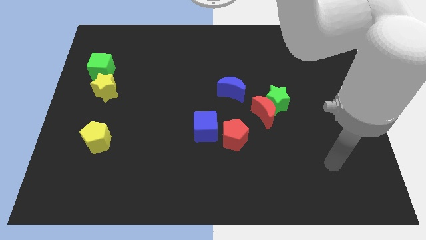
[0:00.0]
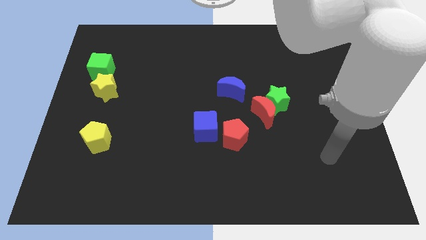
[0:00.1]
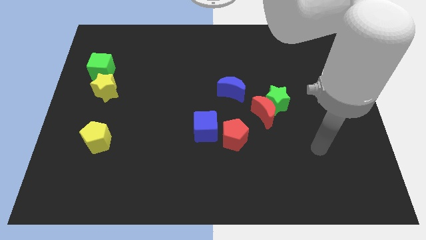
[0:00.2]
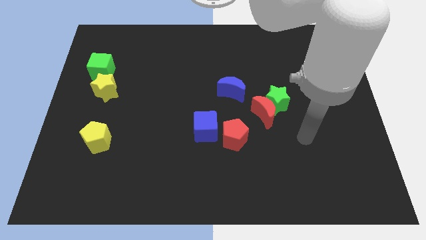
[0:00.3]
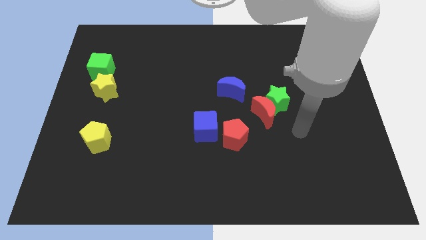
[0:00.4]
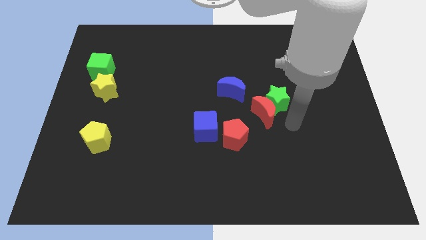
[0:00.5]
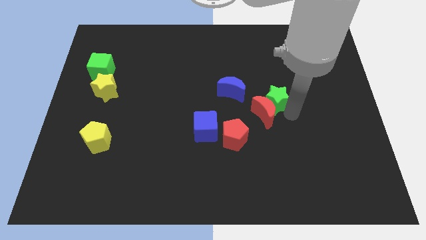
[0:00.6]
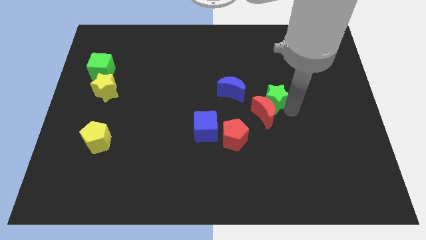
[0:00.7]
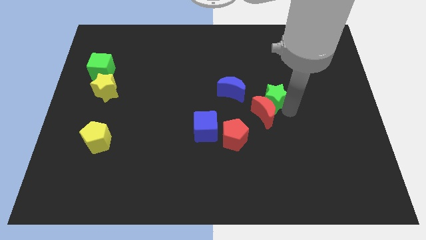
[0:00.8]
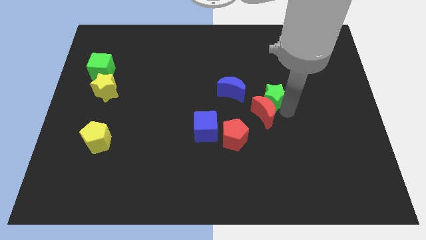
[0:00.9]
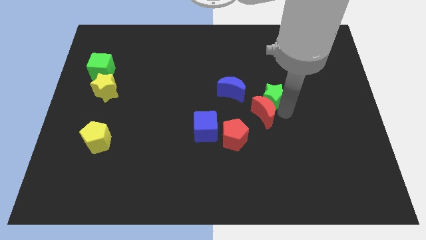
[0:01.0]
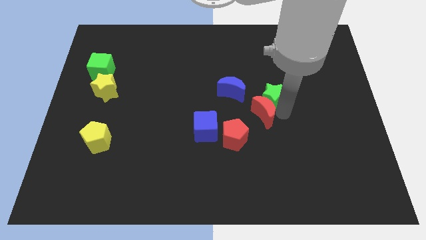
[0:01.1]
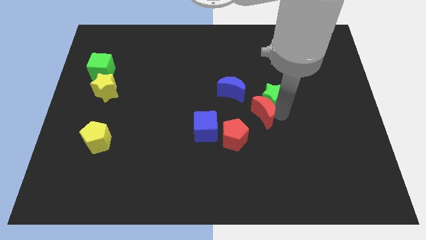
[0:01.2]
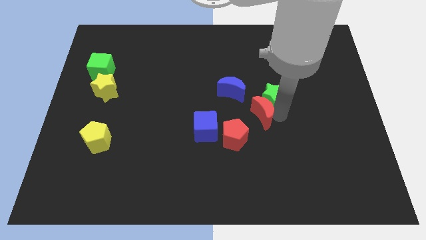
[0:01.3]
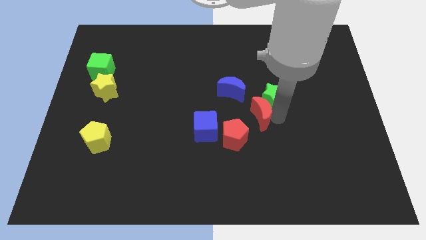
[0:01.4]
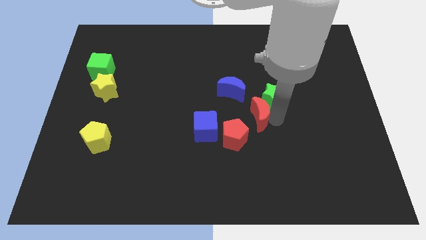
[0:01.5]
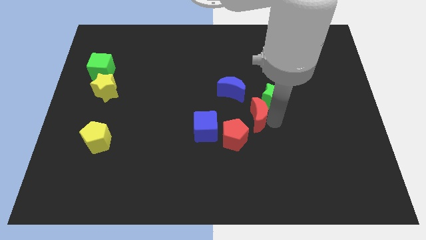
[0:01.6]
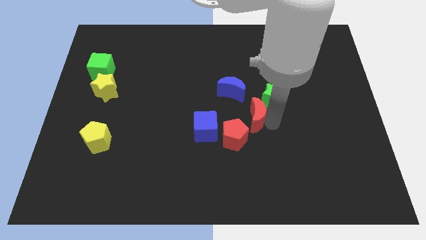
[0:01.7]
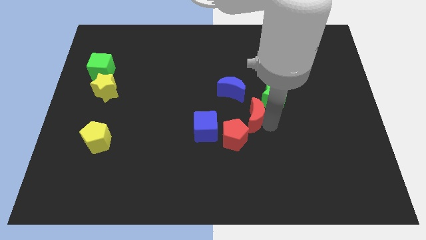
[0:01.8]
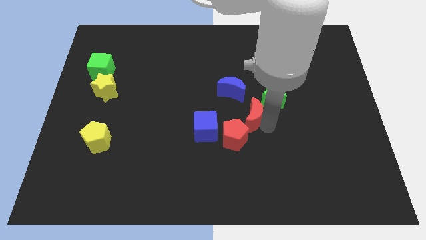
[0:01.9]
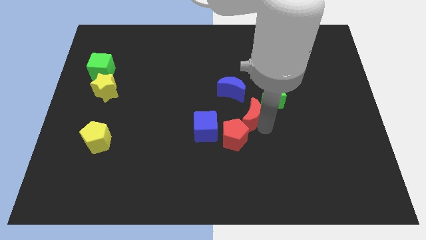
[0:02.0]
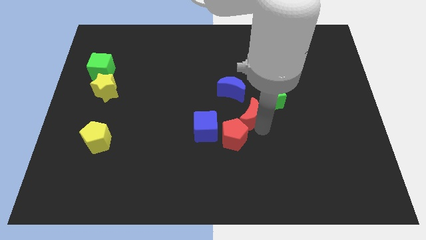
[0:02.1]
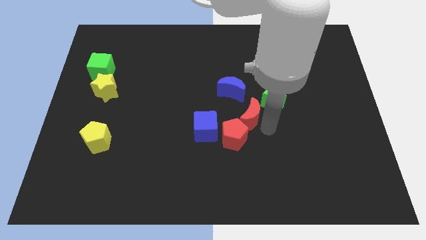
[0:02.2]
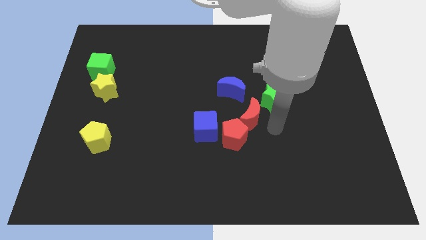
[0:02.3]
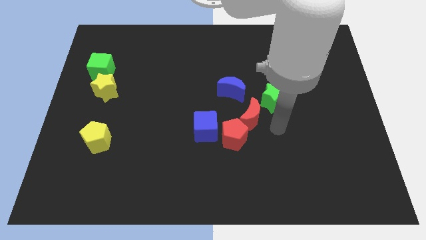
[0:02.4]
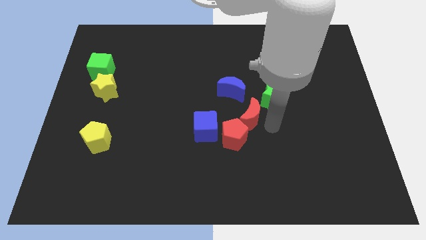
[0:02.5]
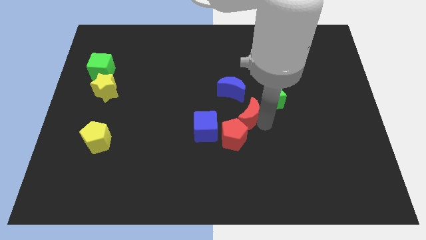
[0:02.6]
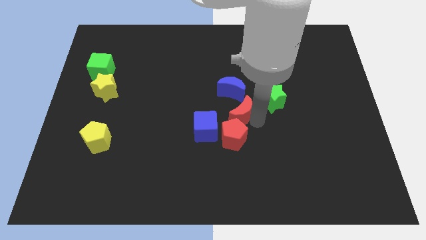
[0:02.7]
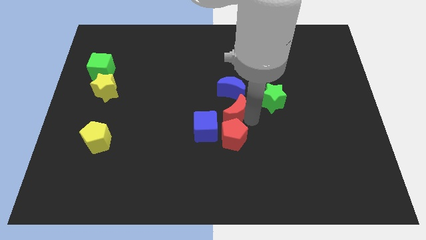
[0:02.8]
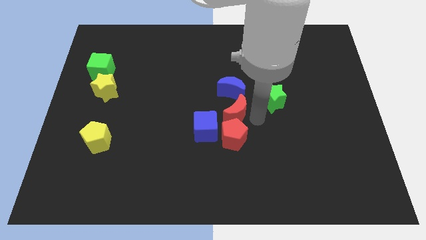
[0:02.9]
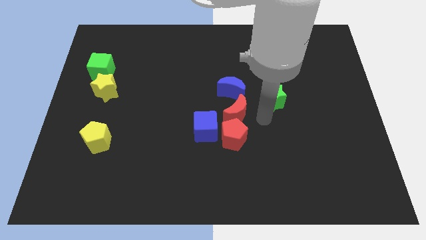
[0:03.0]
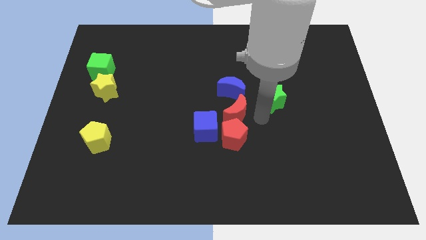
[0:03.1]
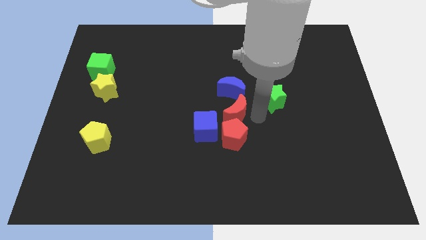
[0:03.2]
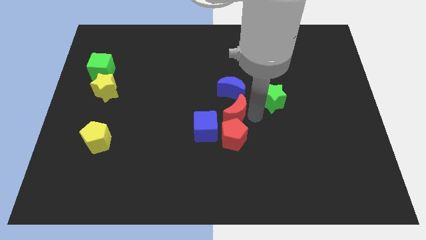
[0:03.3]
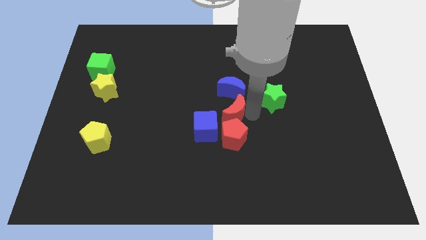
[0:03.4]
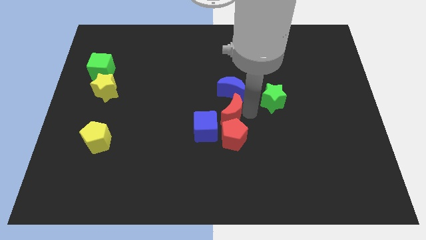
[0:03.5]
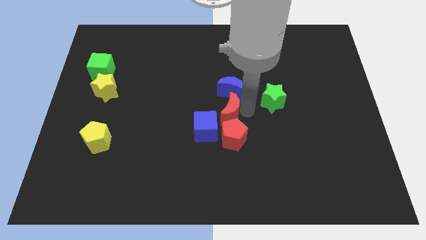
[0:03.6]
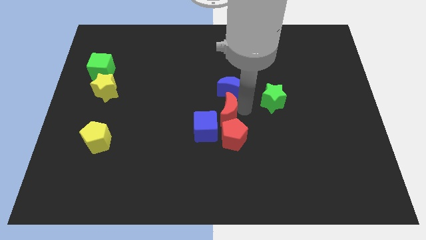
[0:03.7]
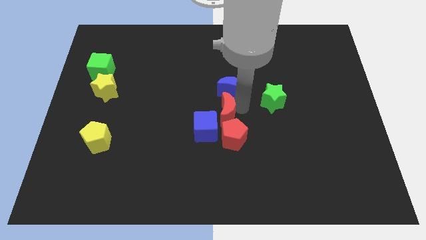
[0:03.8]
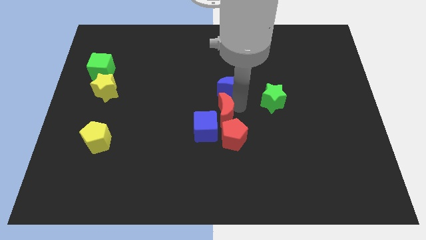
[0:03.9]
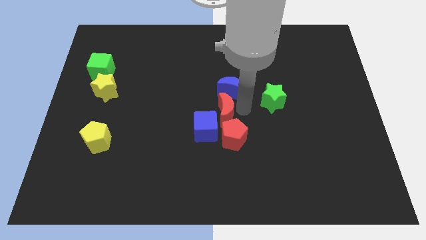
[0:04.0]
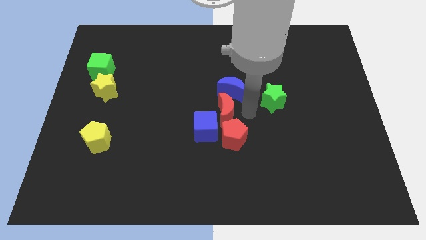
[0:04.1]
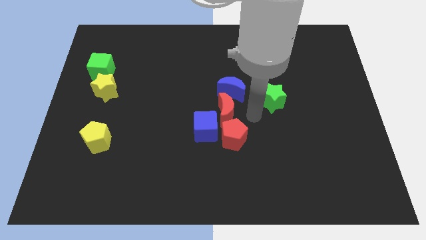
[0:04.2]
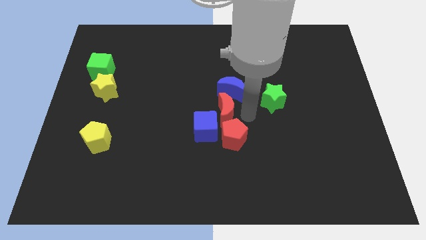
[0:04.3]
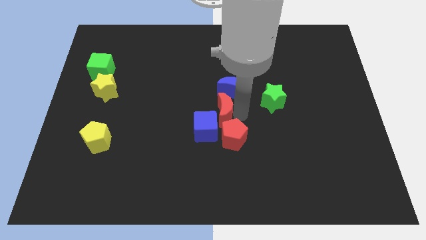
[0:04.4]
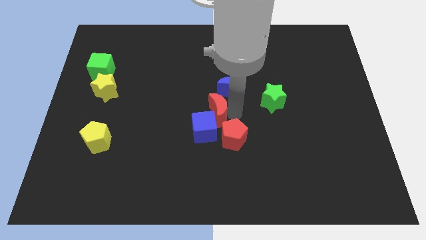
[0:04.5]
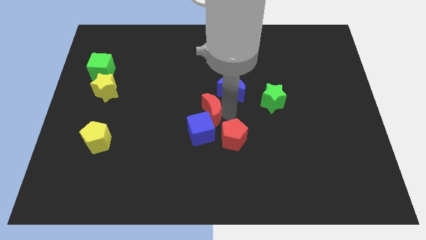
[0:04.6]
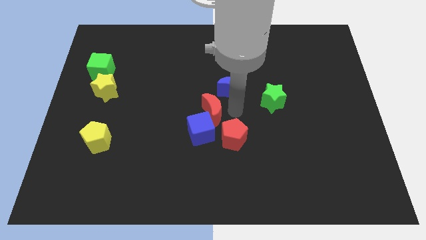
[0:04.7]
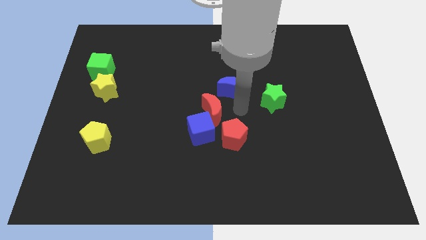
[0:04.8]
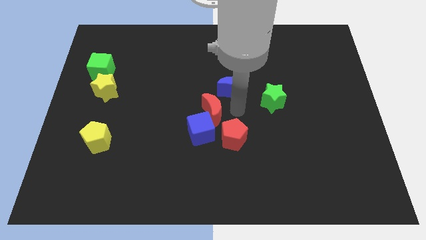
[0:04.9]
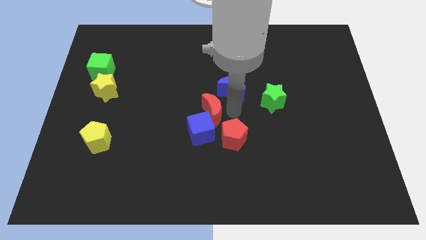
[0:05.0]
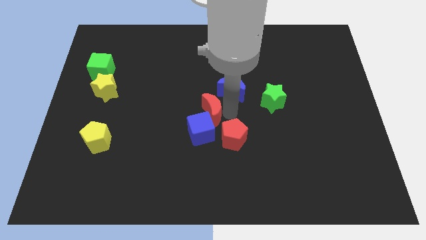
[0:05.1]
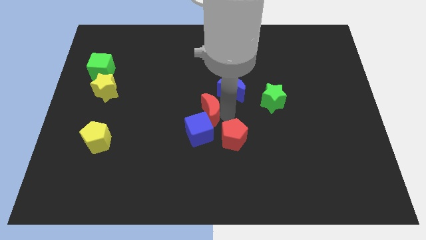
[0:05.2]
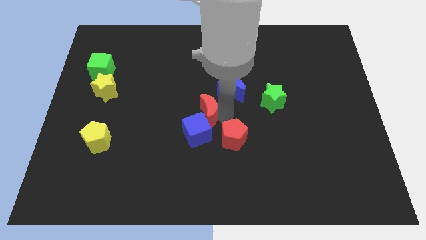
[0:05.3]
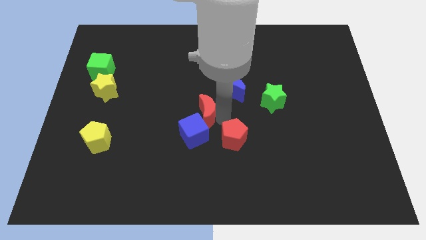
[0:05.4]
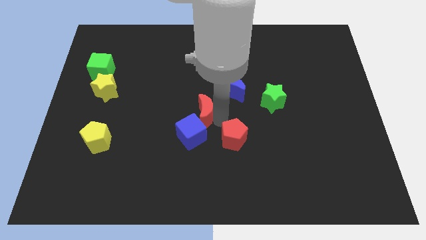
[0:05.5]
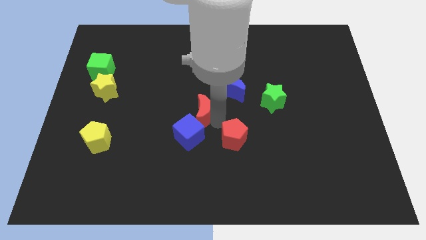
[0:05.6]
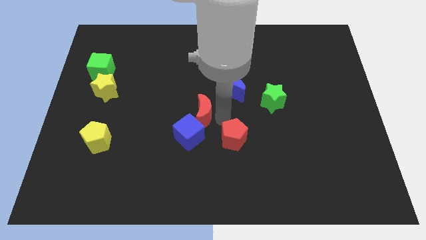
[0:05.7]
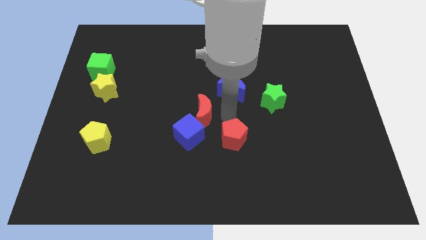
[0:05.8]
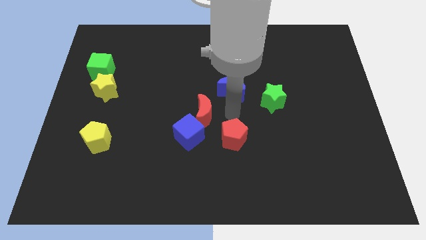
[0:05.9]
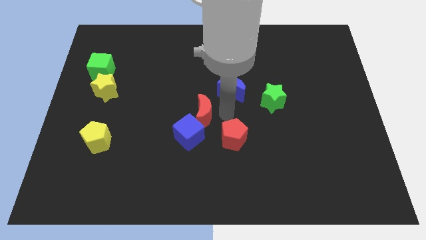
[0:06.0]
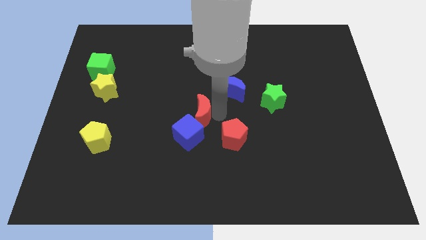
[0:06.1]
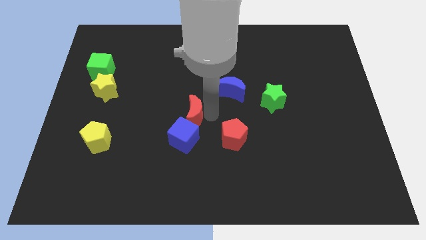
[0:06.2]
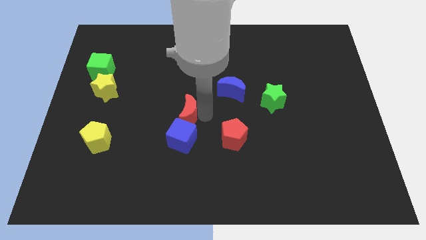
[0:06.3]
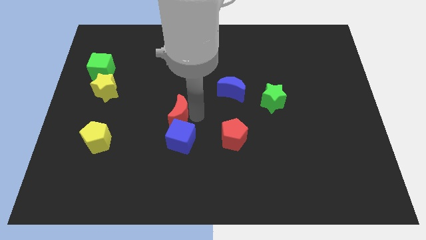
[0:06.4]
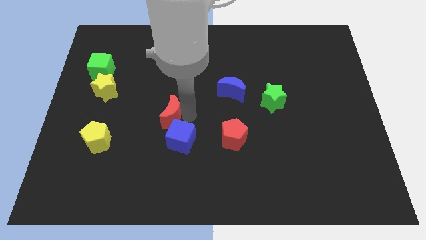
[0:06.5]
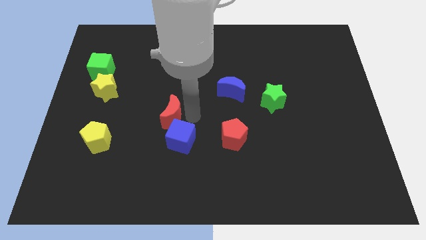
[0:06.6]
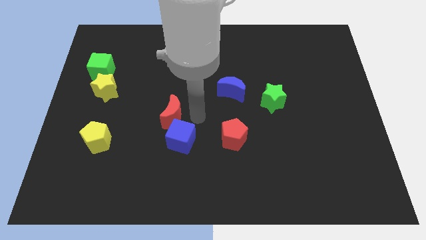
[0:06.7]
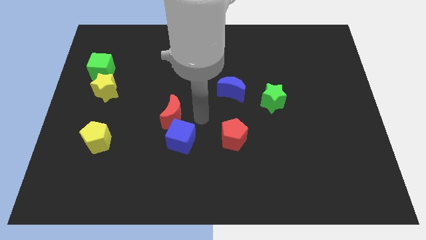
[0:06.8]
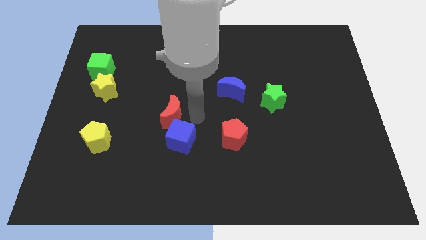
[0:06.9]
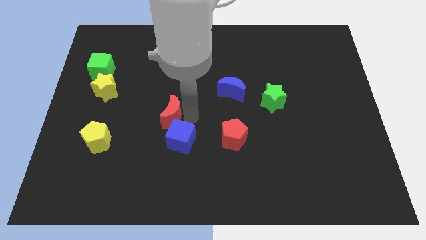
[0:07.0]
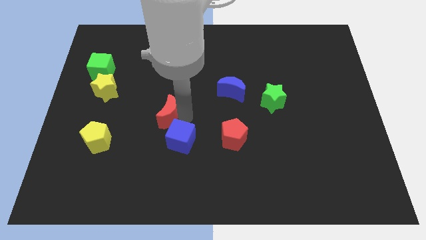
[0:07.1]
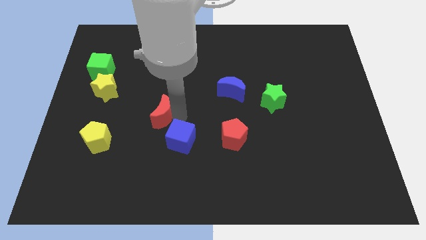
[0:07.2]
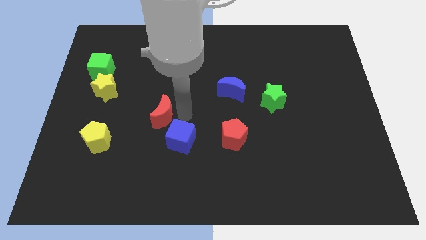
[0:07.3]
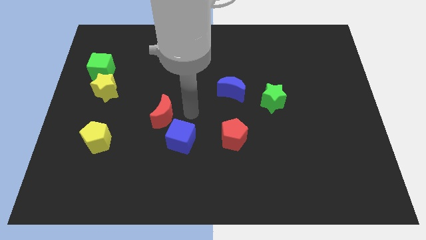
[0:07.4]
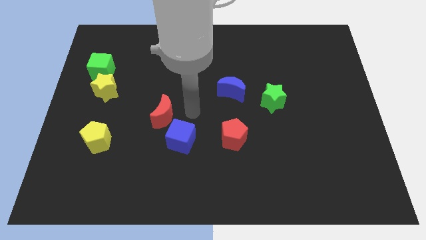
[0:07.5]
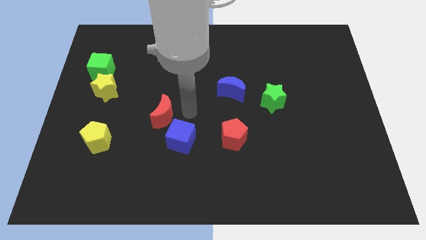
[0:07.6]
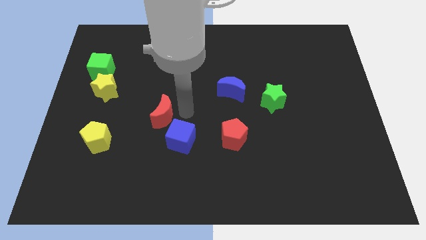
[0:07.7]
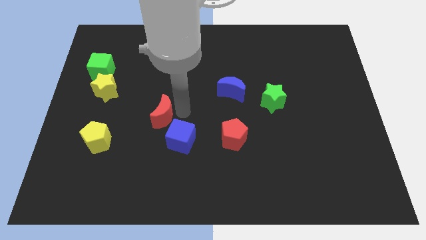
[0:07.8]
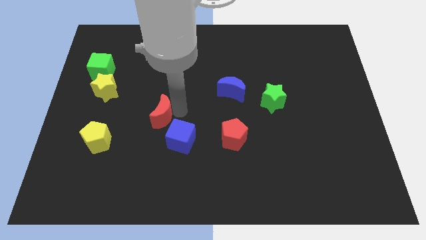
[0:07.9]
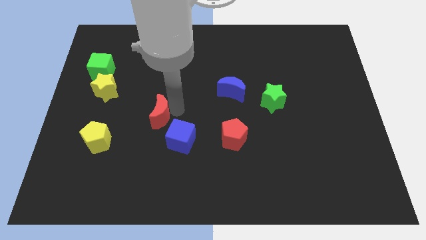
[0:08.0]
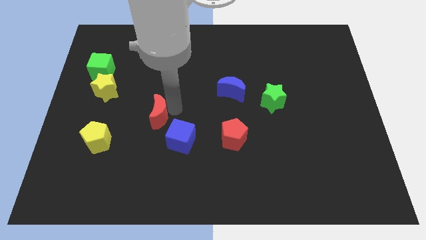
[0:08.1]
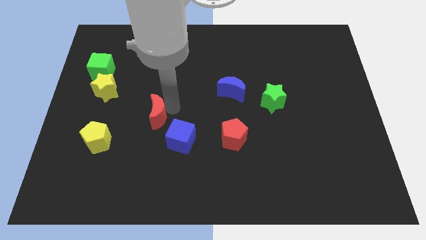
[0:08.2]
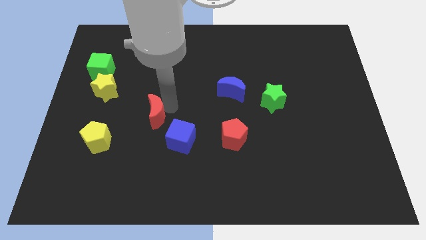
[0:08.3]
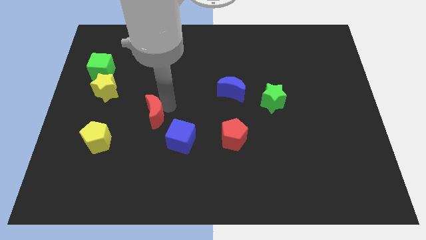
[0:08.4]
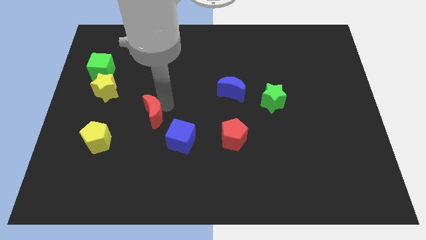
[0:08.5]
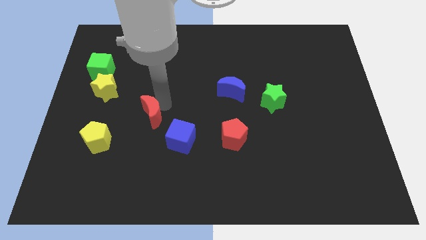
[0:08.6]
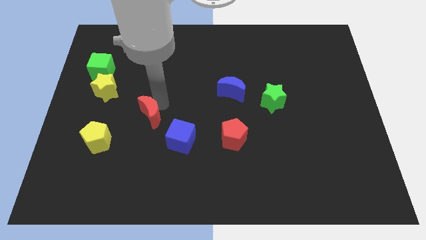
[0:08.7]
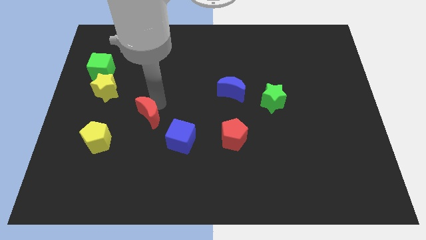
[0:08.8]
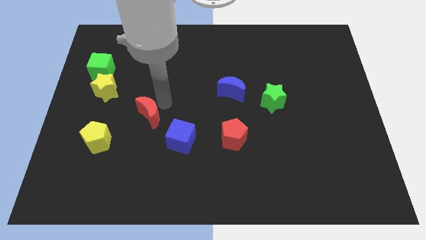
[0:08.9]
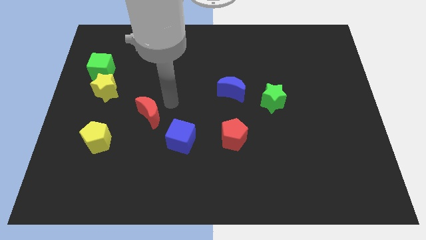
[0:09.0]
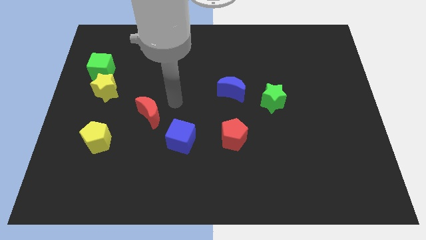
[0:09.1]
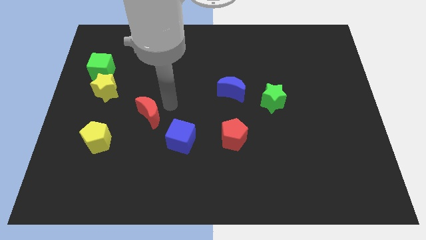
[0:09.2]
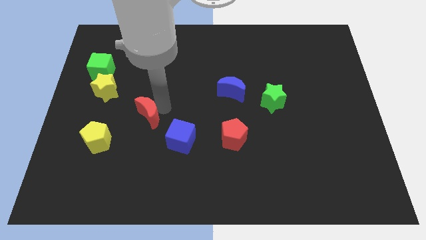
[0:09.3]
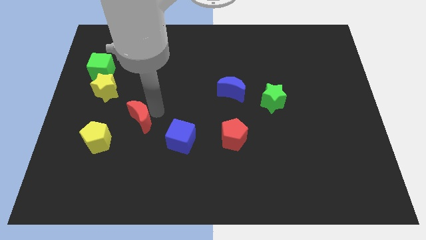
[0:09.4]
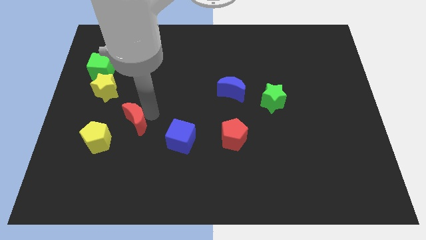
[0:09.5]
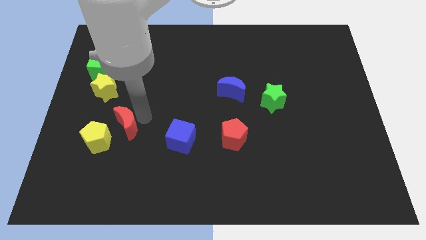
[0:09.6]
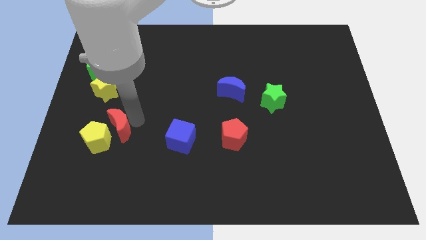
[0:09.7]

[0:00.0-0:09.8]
move the red moon to the yellow pentagon
